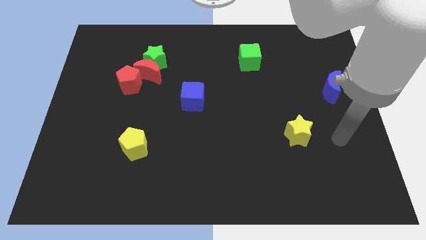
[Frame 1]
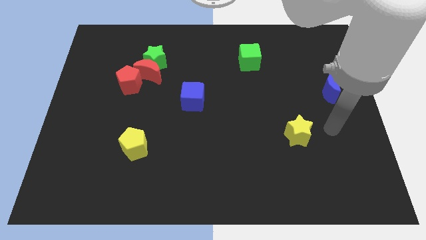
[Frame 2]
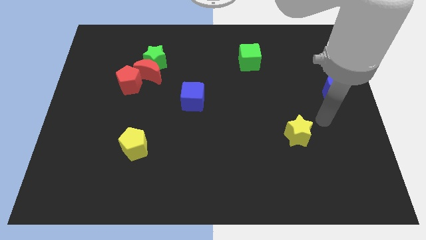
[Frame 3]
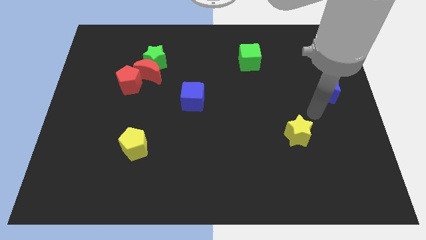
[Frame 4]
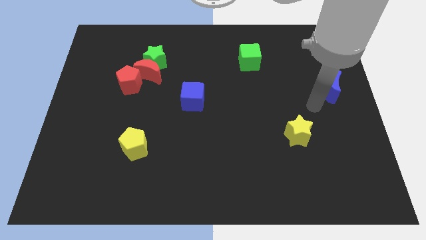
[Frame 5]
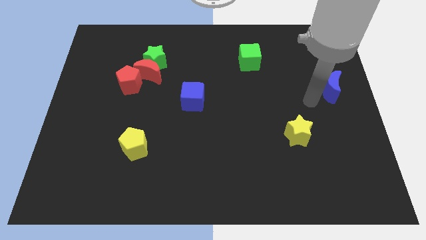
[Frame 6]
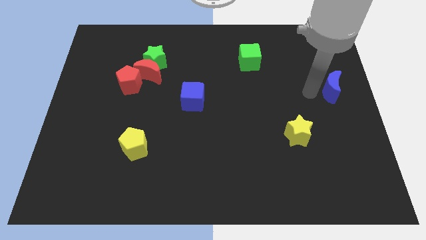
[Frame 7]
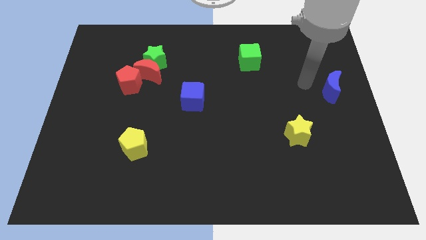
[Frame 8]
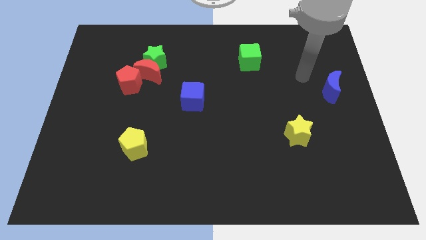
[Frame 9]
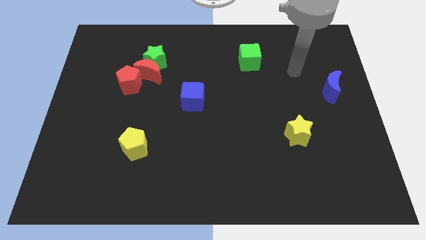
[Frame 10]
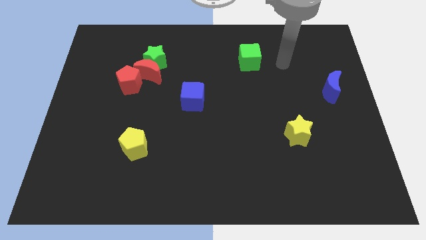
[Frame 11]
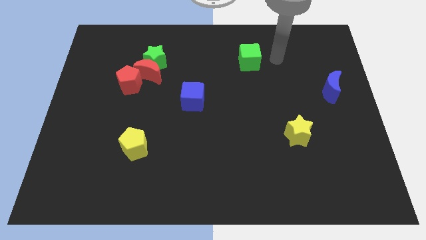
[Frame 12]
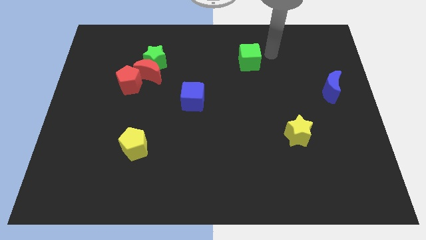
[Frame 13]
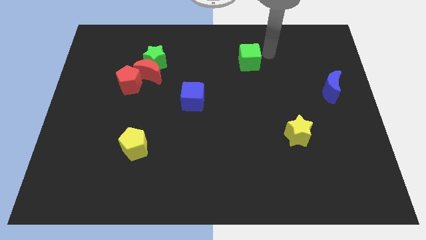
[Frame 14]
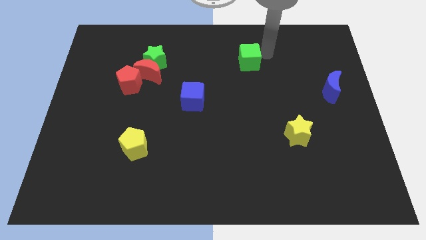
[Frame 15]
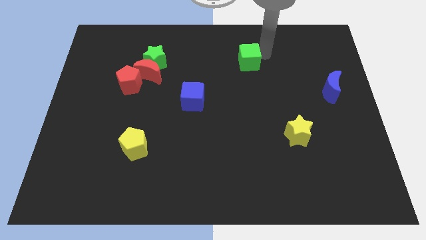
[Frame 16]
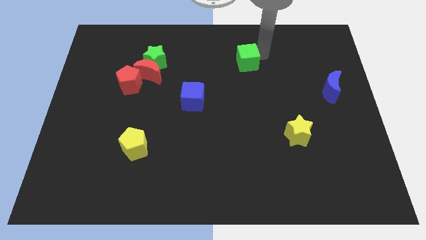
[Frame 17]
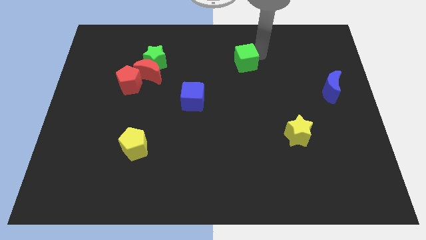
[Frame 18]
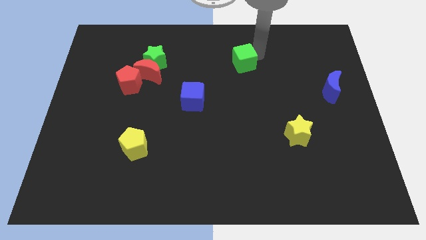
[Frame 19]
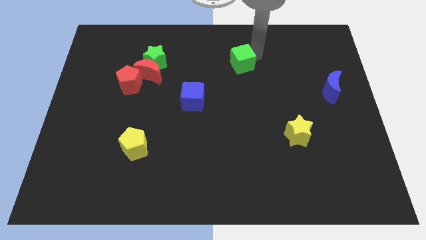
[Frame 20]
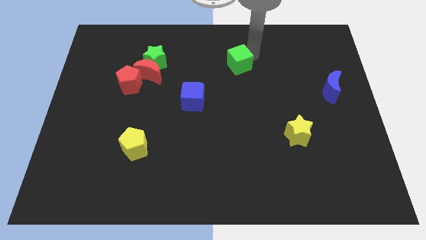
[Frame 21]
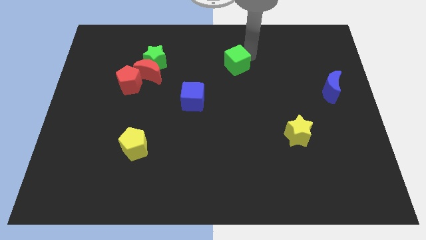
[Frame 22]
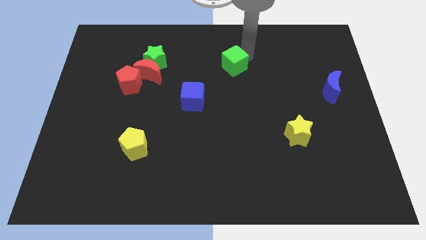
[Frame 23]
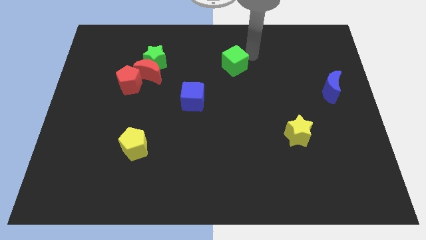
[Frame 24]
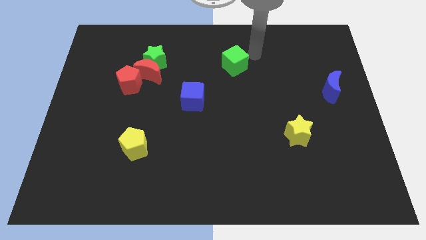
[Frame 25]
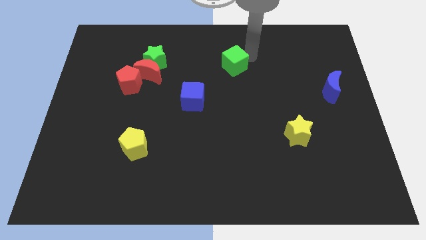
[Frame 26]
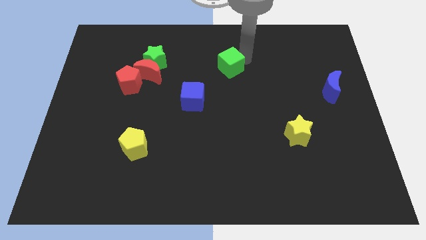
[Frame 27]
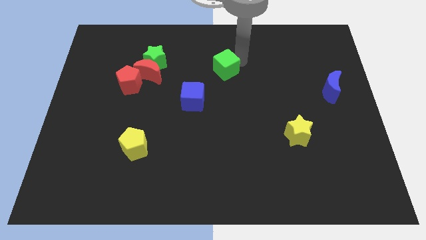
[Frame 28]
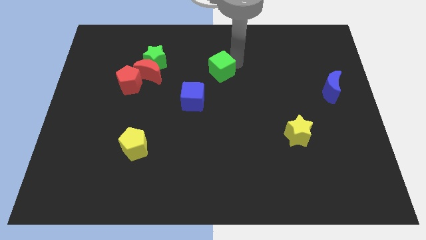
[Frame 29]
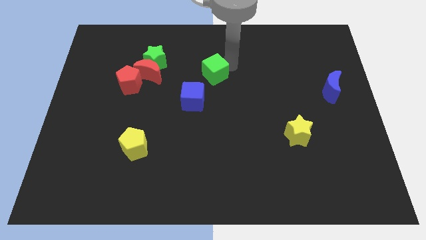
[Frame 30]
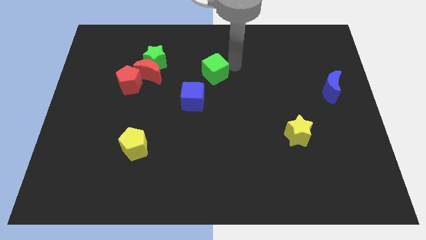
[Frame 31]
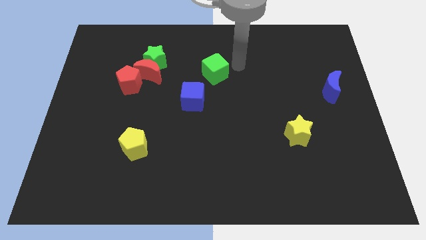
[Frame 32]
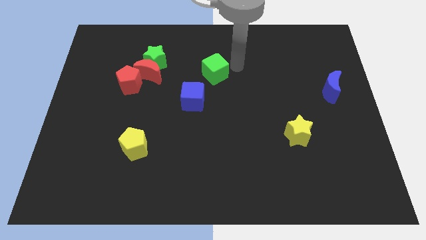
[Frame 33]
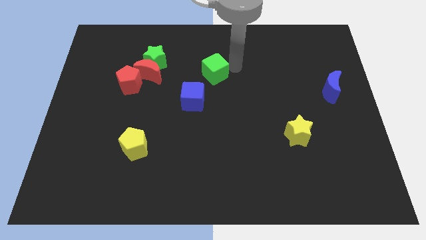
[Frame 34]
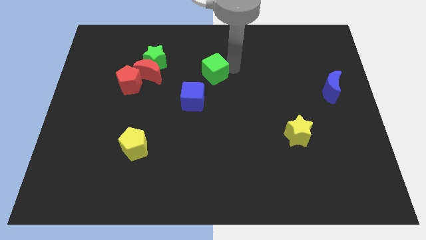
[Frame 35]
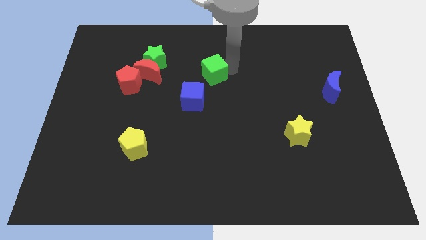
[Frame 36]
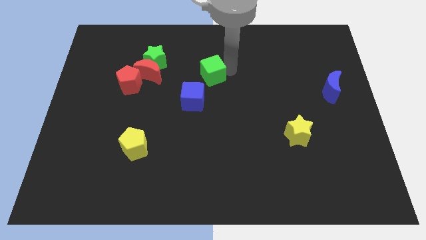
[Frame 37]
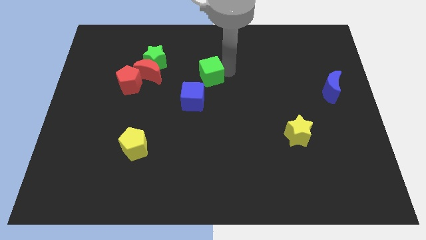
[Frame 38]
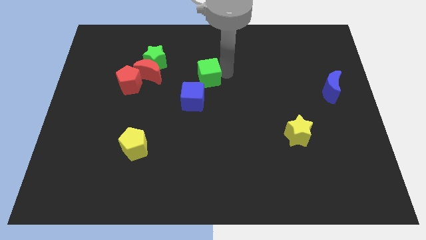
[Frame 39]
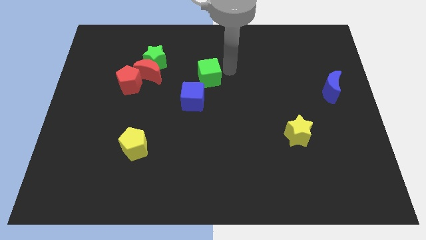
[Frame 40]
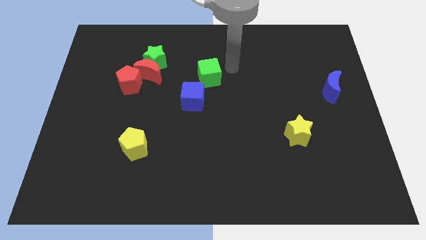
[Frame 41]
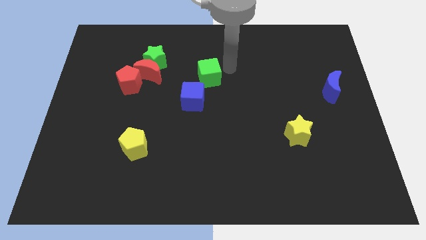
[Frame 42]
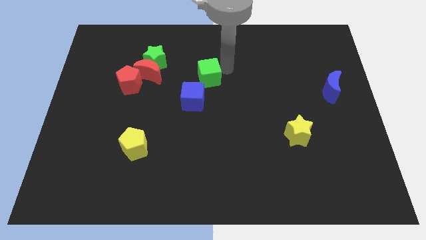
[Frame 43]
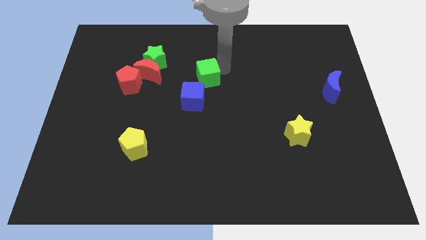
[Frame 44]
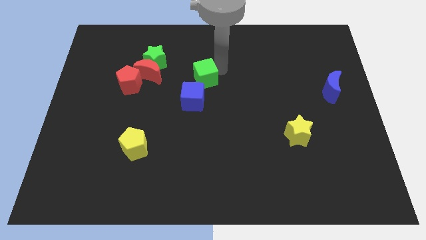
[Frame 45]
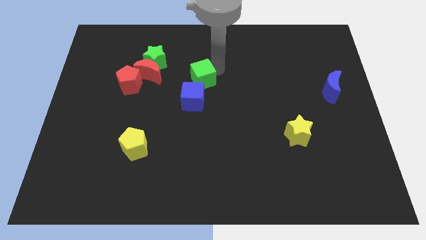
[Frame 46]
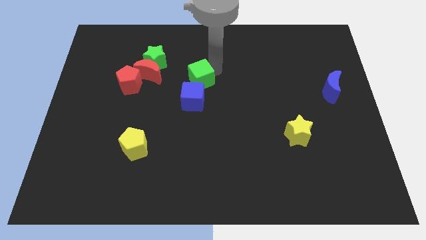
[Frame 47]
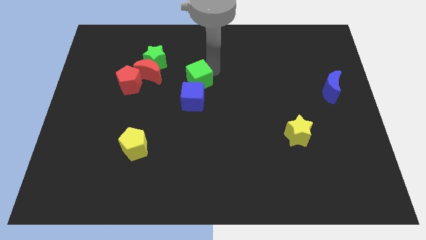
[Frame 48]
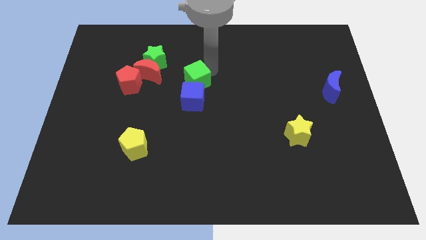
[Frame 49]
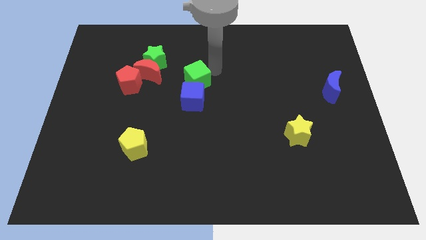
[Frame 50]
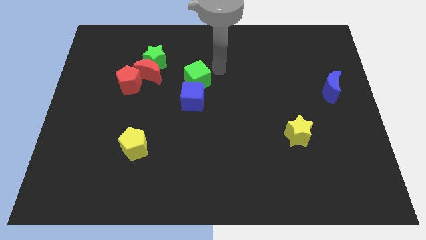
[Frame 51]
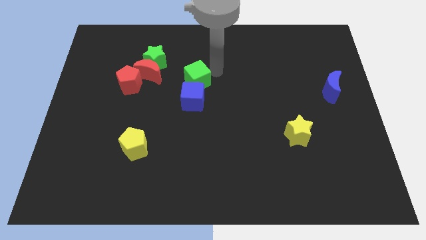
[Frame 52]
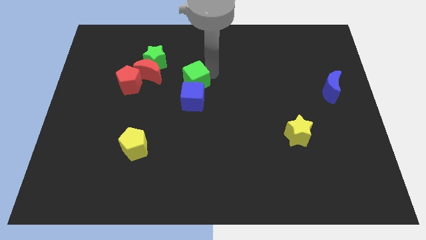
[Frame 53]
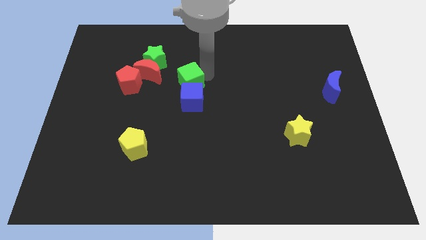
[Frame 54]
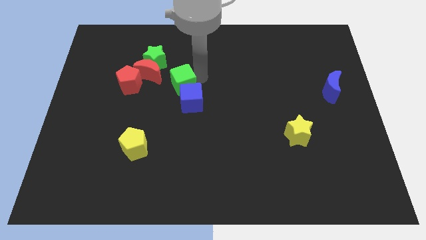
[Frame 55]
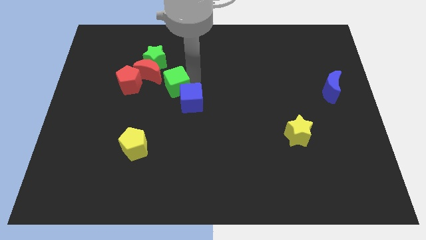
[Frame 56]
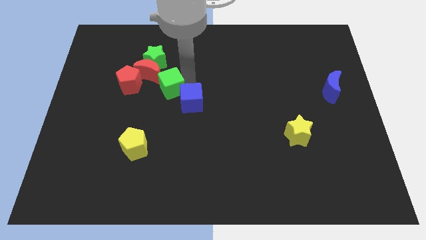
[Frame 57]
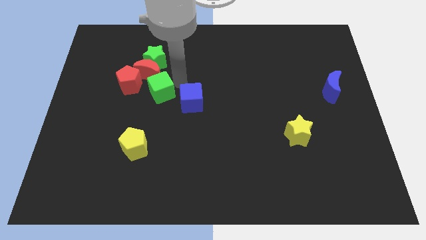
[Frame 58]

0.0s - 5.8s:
move the green cube to the bottom side of the red moon

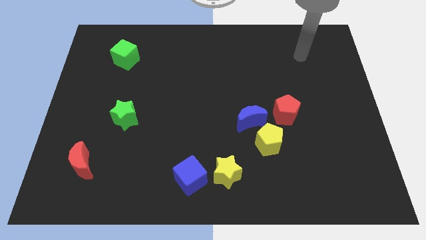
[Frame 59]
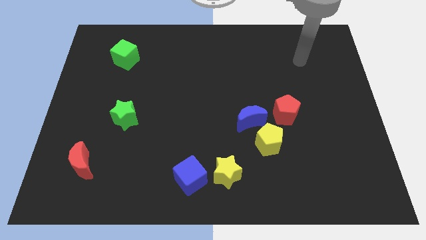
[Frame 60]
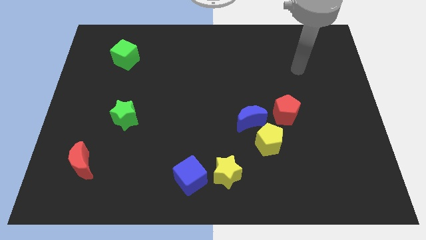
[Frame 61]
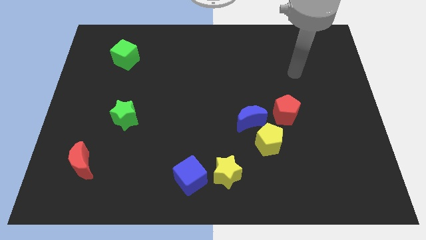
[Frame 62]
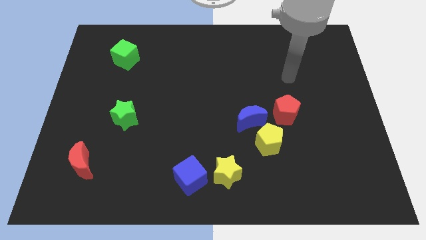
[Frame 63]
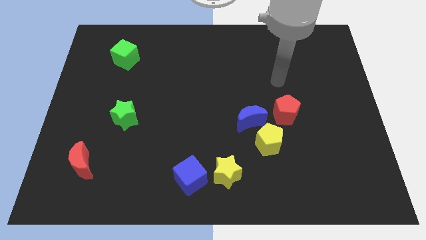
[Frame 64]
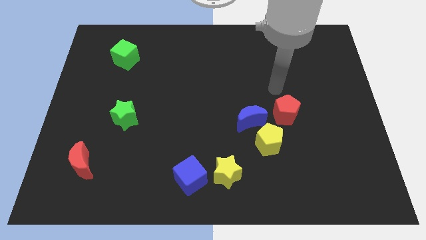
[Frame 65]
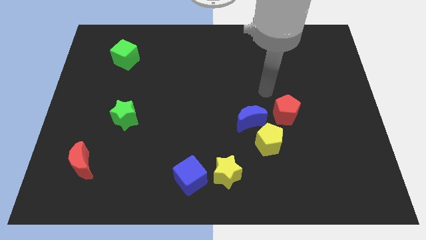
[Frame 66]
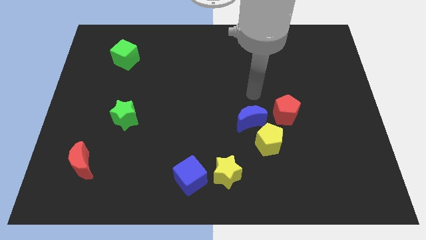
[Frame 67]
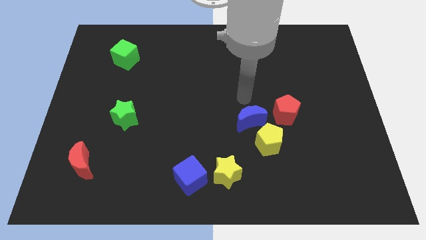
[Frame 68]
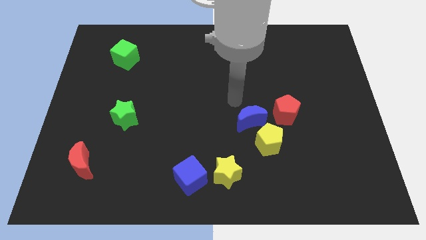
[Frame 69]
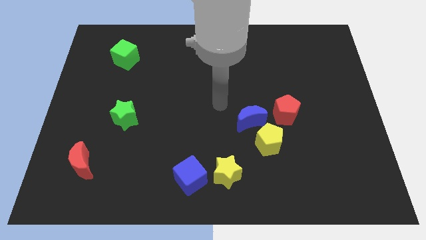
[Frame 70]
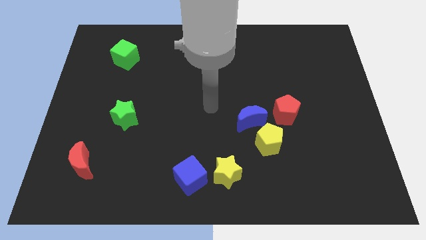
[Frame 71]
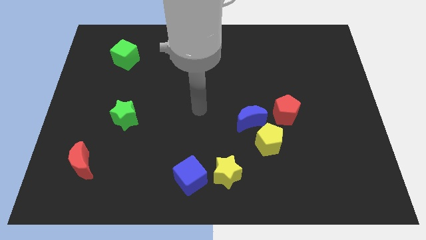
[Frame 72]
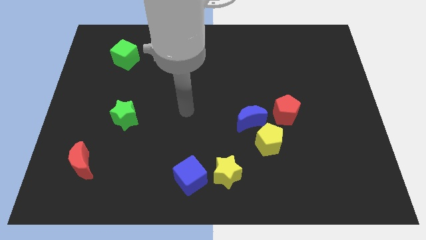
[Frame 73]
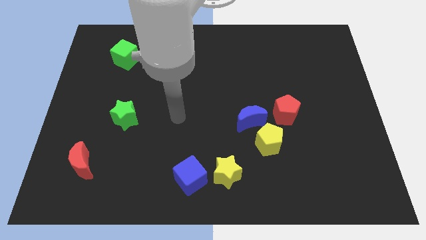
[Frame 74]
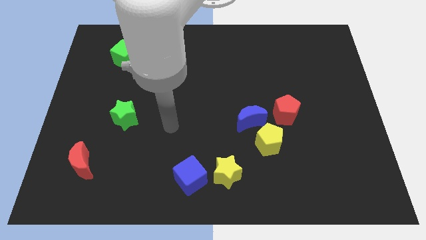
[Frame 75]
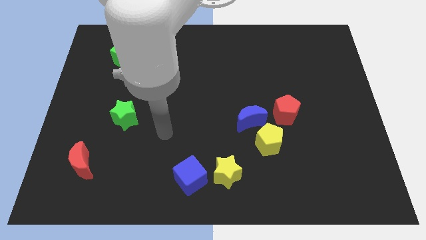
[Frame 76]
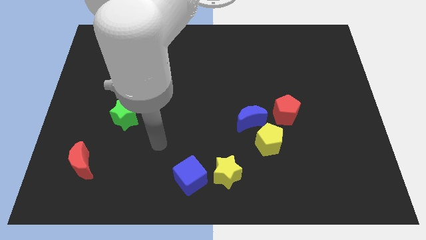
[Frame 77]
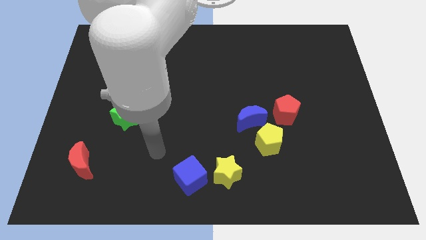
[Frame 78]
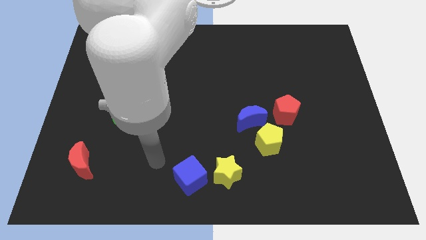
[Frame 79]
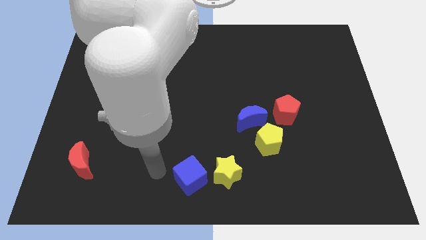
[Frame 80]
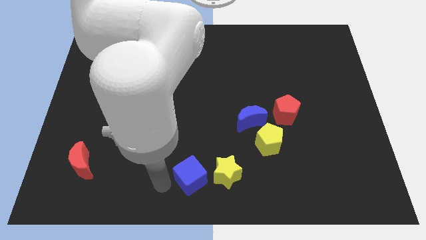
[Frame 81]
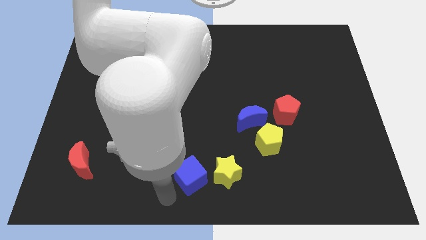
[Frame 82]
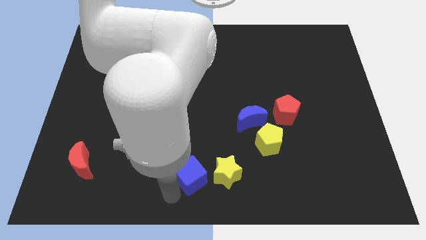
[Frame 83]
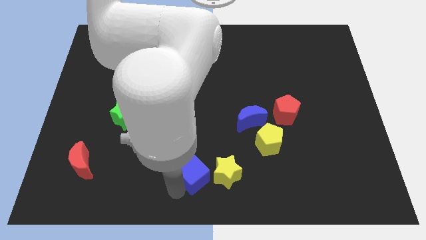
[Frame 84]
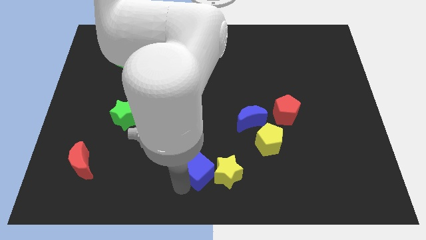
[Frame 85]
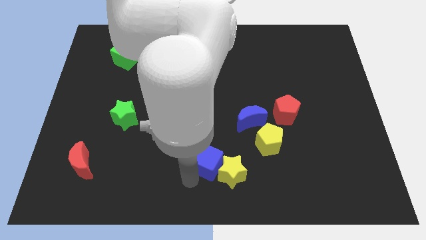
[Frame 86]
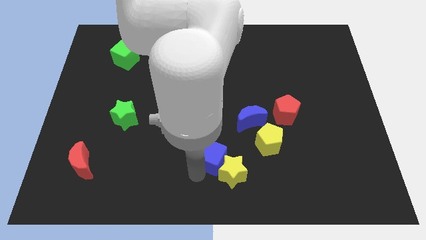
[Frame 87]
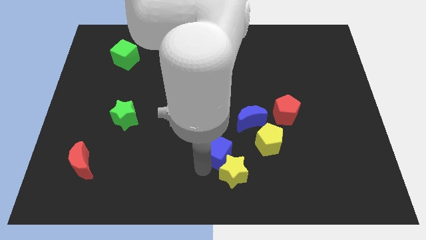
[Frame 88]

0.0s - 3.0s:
push the blue cube diagonally down and to the left of the blue moon
